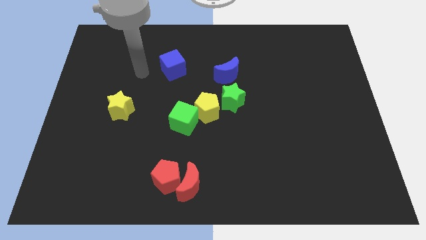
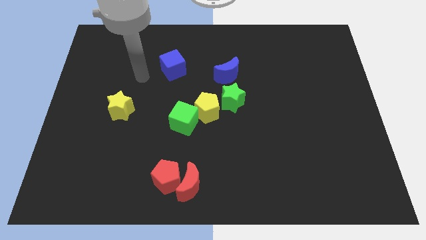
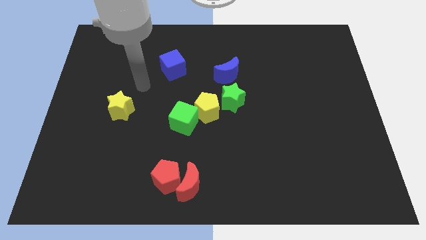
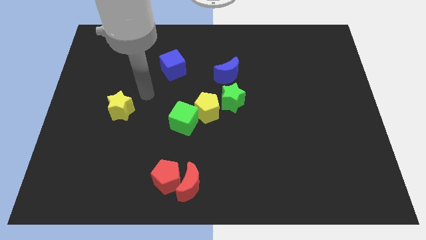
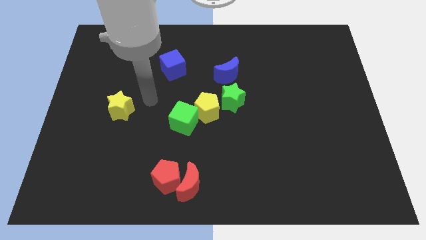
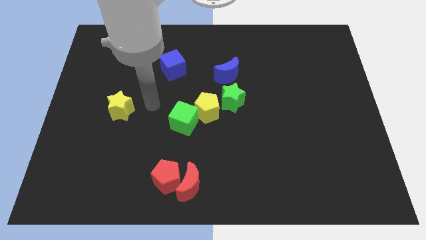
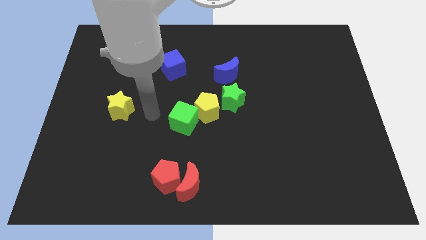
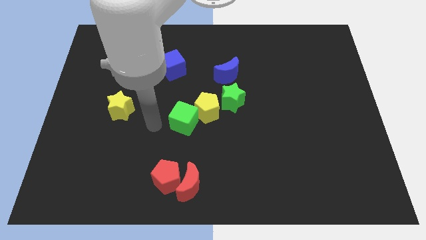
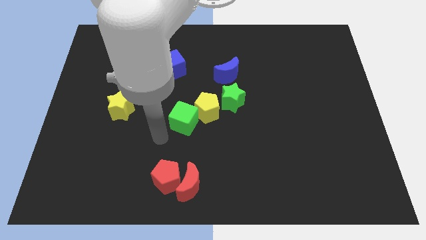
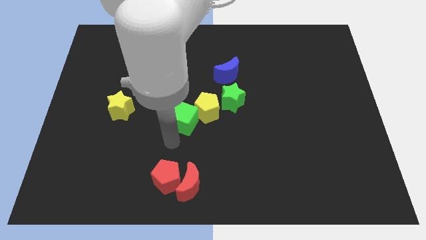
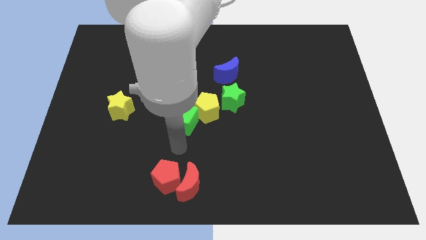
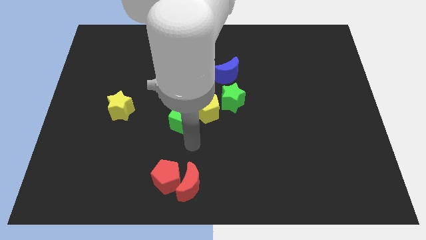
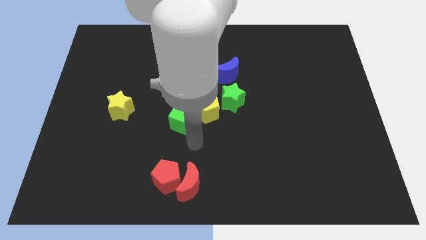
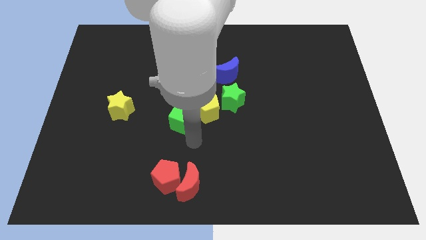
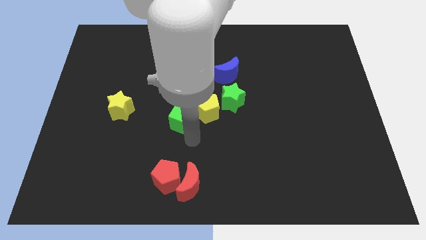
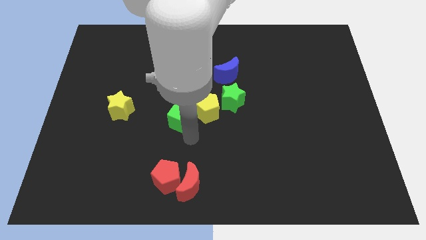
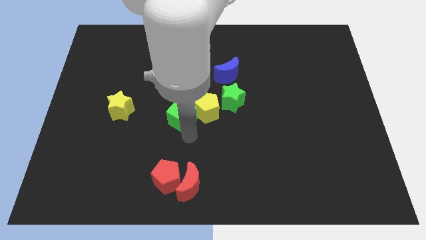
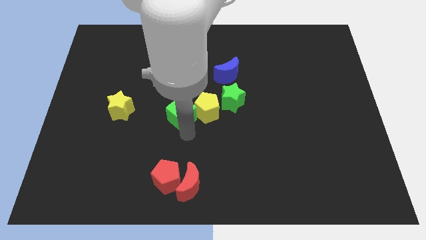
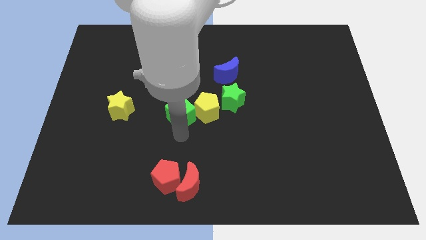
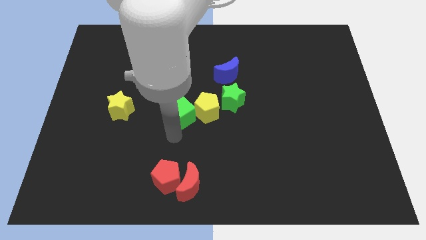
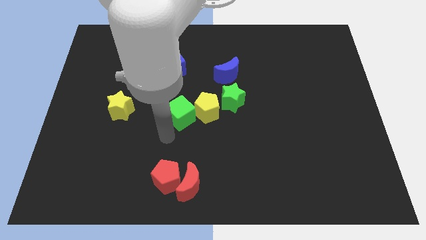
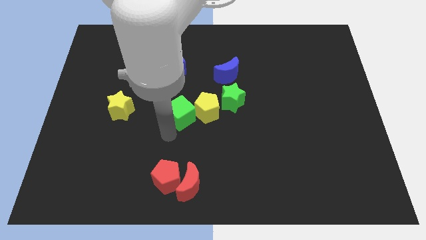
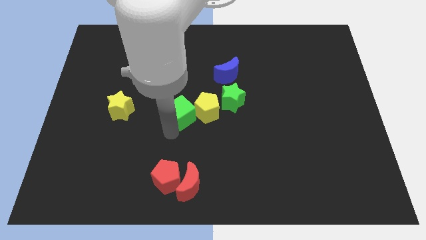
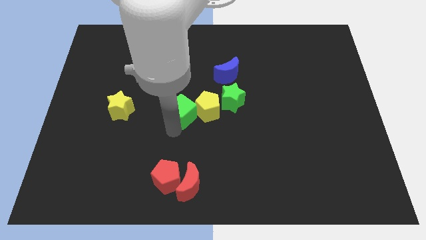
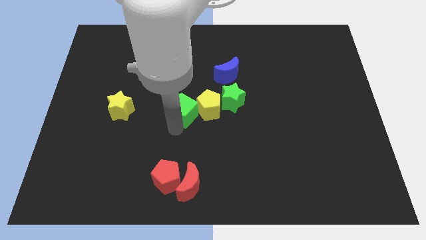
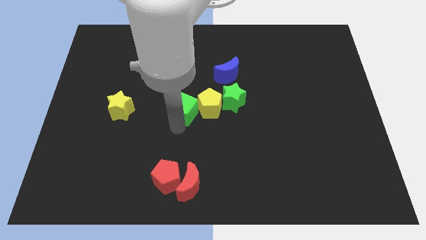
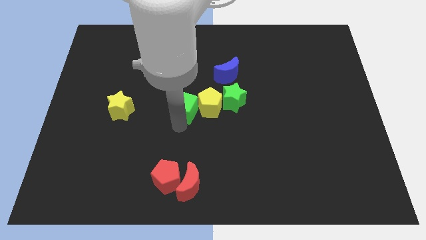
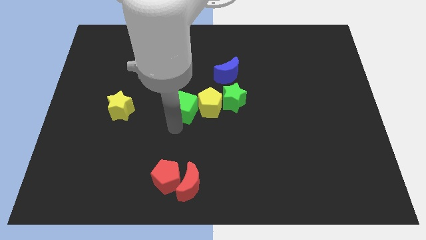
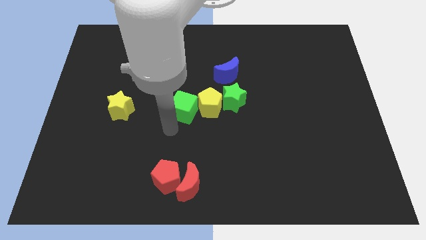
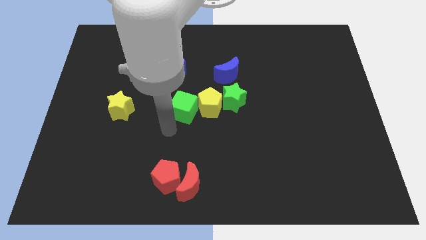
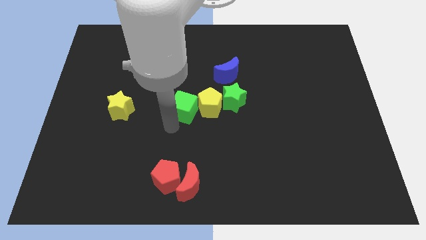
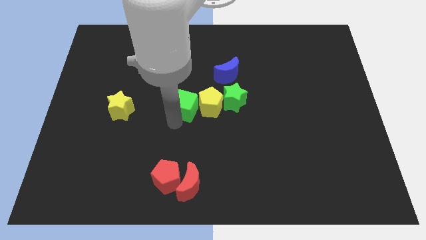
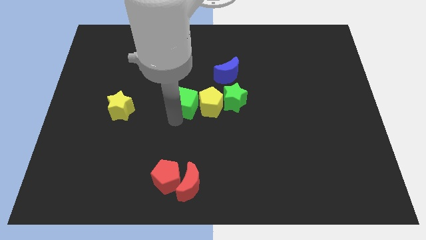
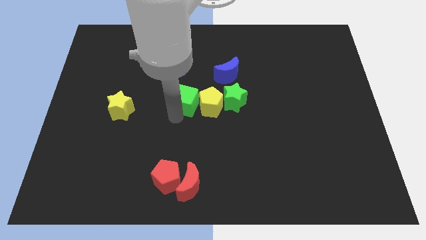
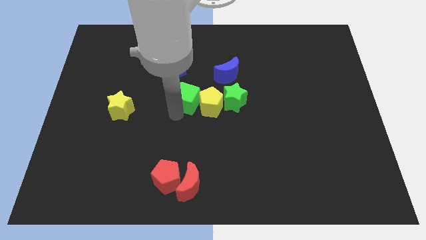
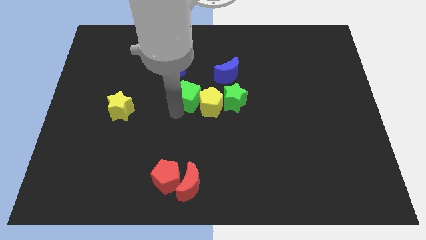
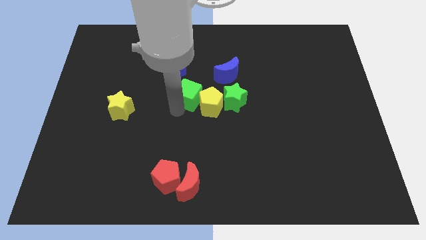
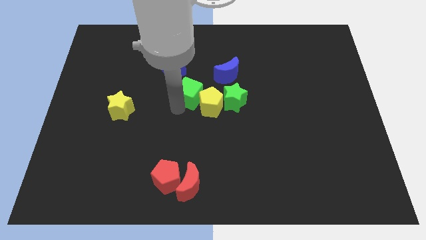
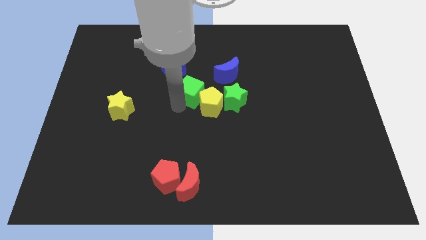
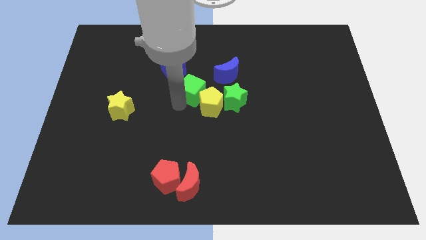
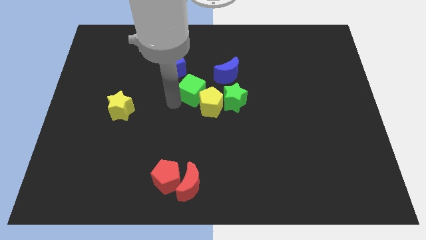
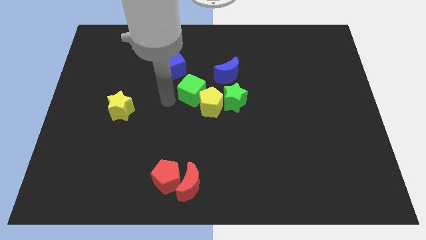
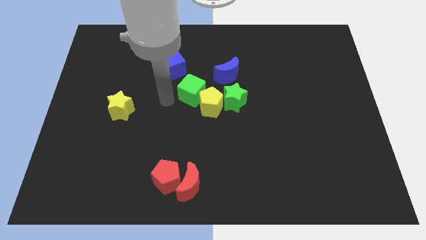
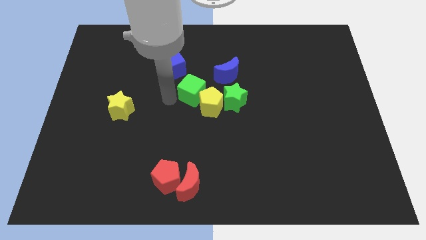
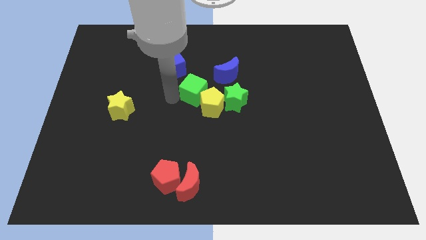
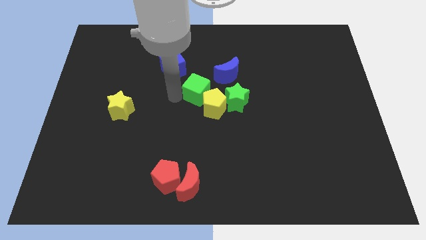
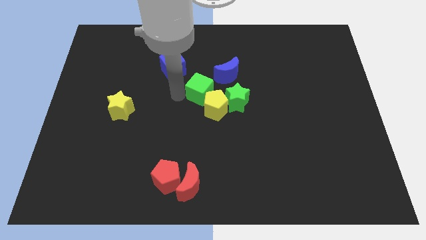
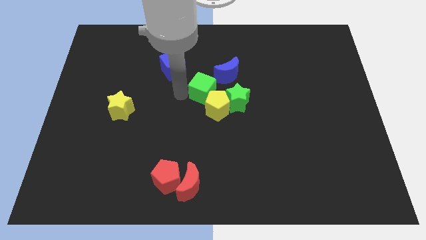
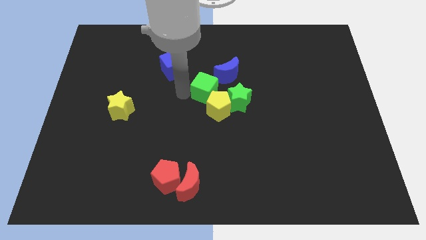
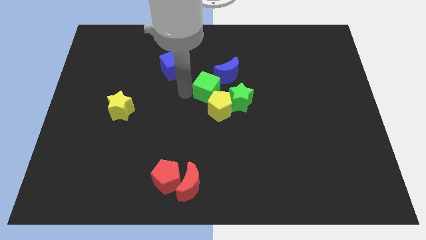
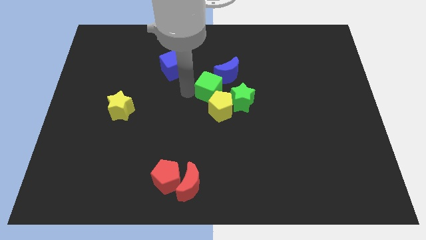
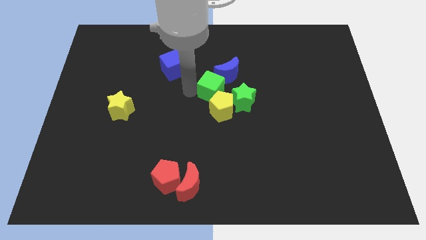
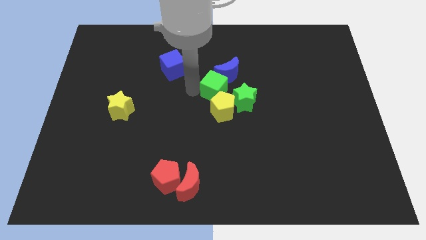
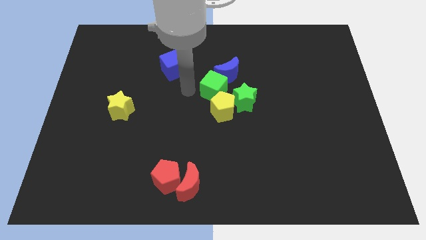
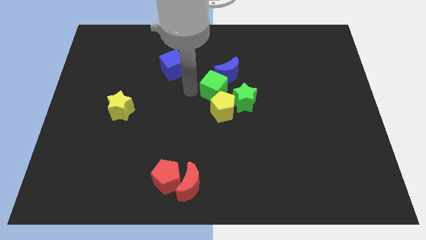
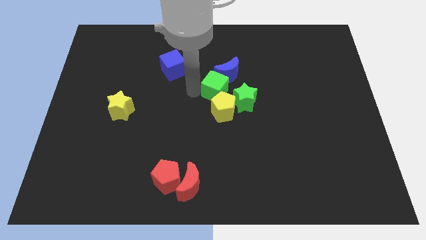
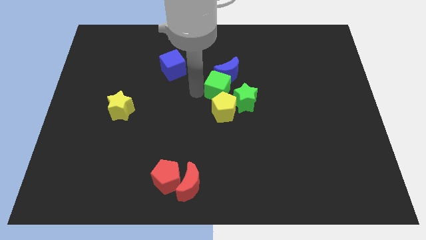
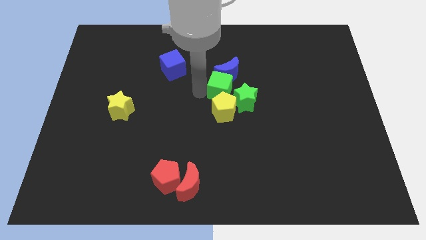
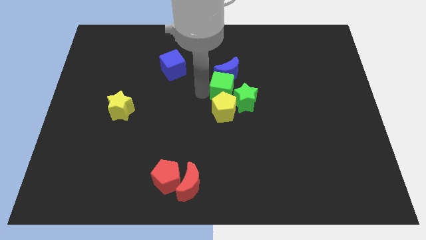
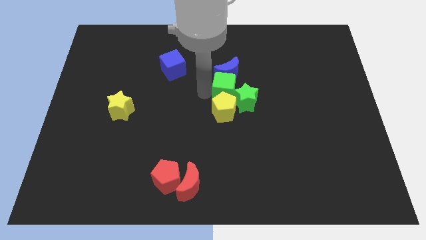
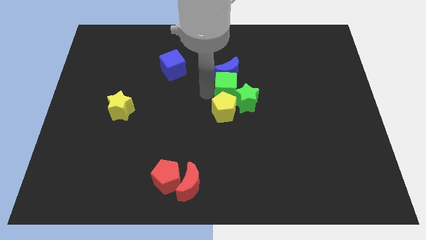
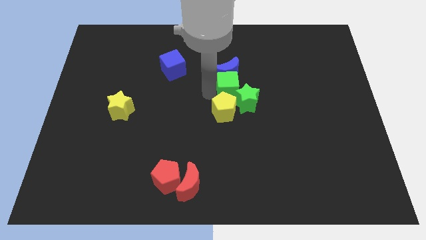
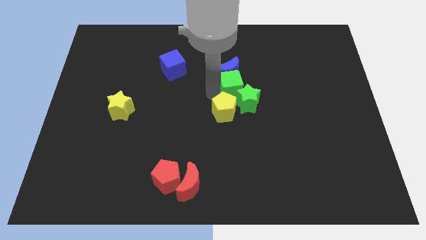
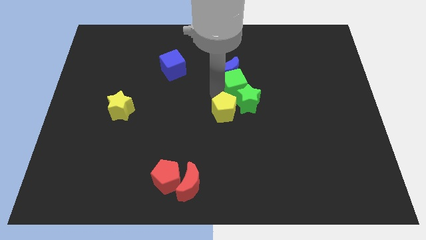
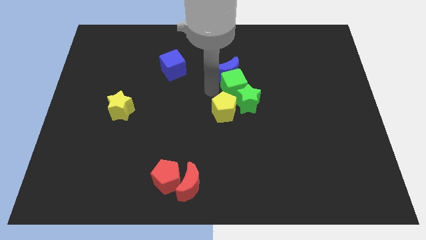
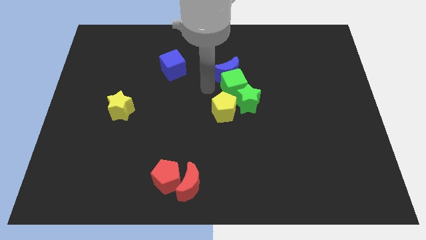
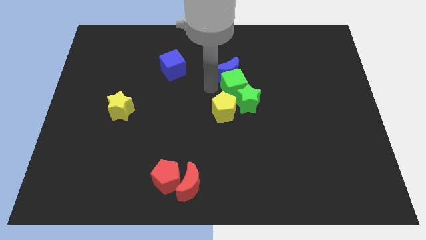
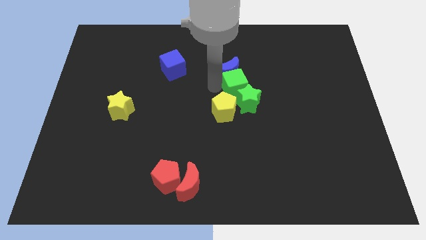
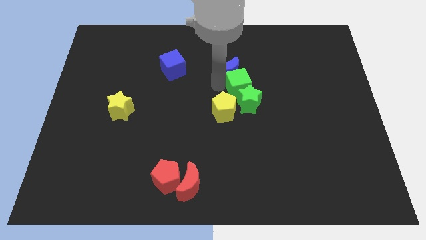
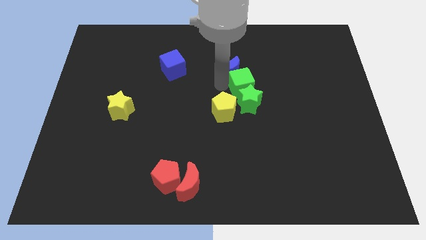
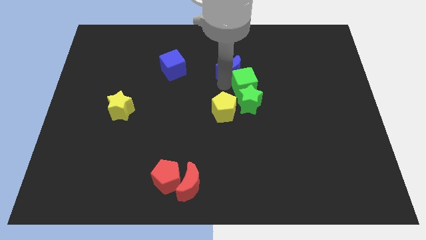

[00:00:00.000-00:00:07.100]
slide the green cube to the top right of the green star
